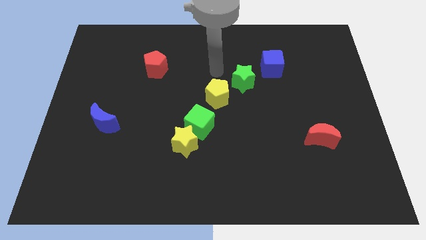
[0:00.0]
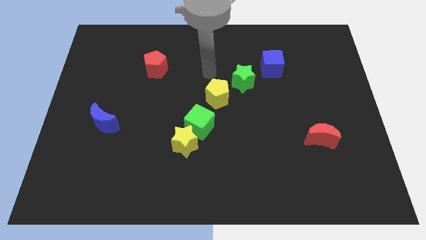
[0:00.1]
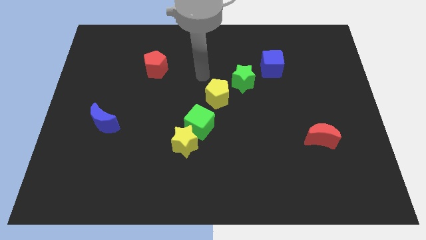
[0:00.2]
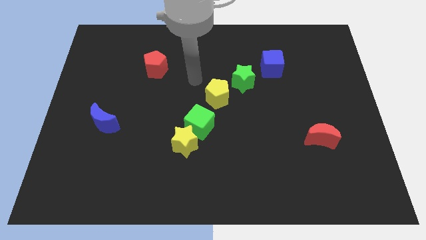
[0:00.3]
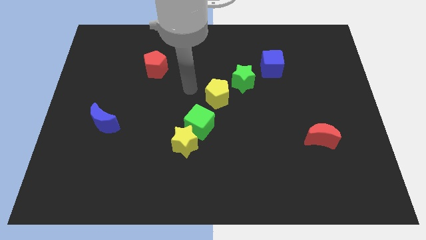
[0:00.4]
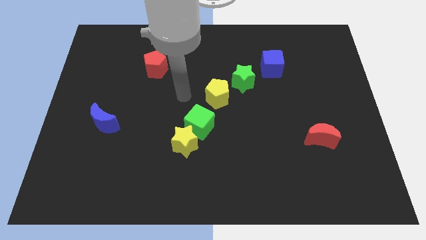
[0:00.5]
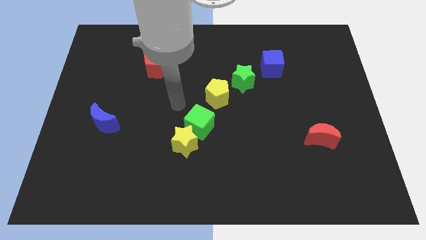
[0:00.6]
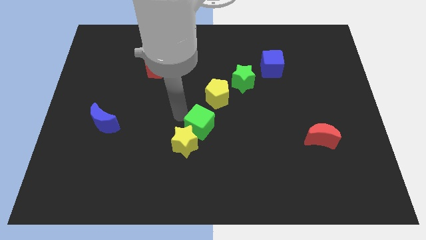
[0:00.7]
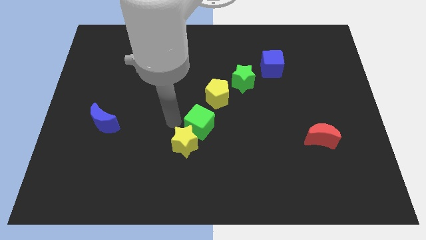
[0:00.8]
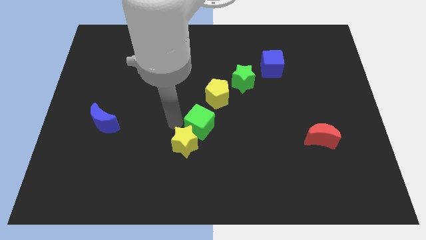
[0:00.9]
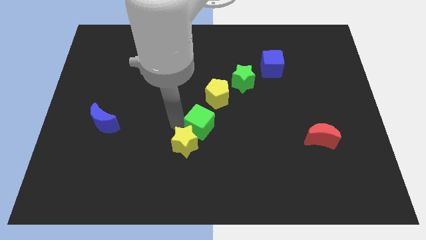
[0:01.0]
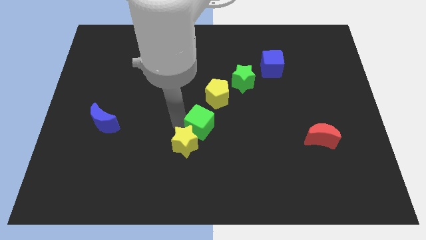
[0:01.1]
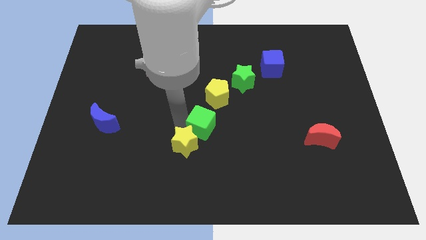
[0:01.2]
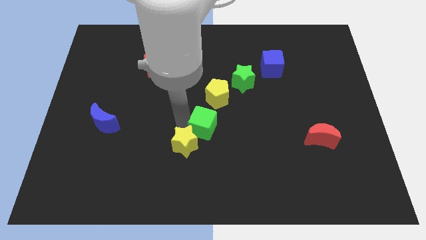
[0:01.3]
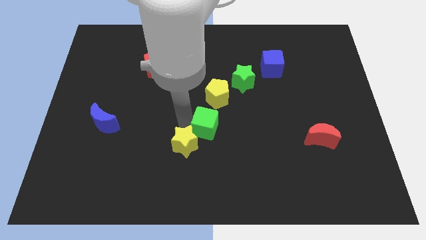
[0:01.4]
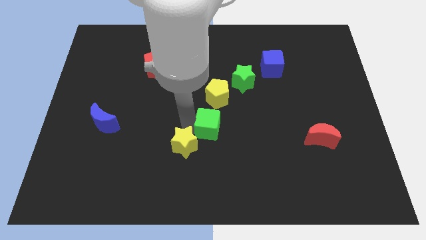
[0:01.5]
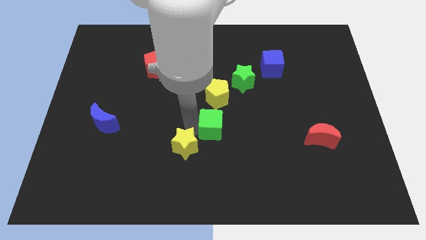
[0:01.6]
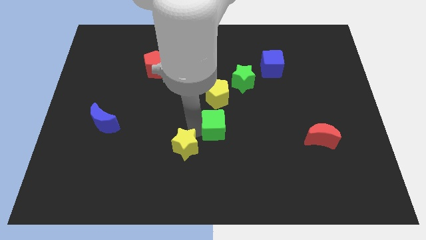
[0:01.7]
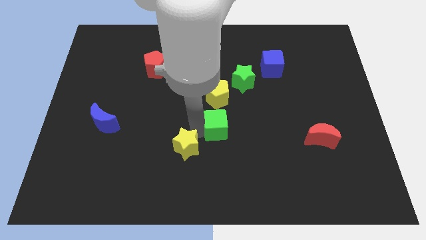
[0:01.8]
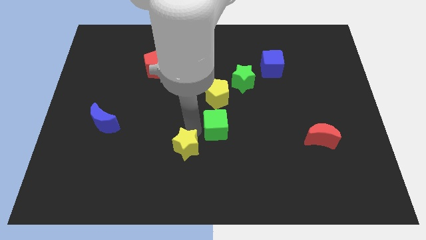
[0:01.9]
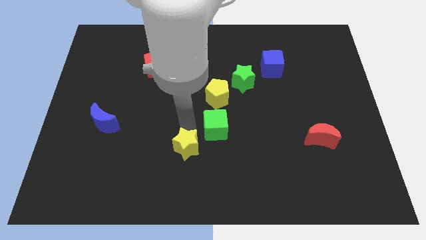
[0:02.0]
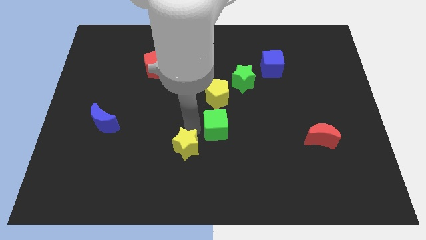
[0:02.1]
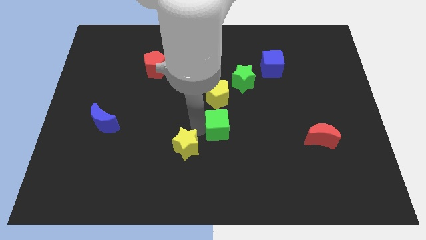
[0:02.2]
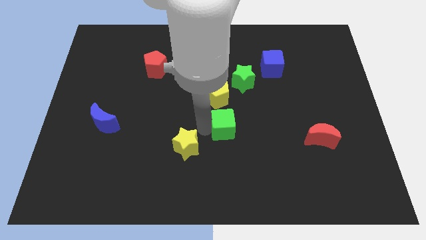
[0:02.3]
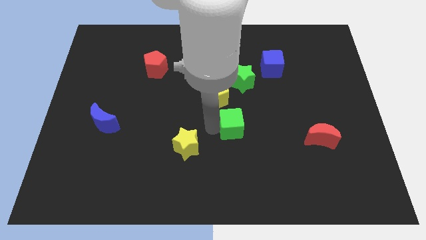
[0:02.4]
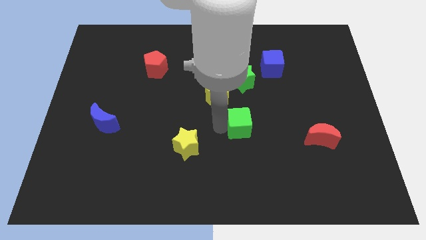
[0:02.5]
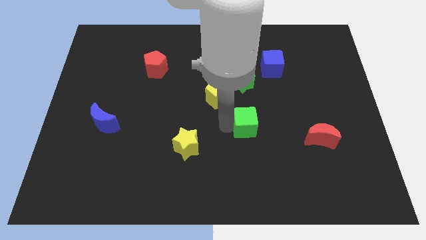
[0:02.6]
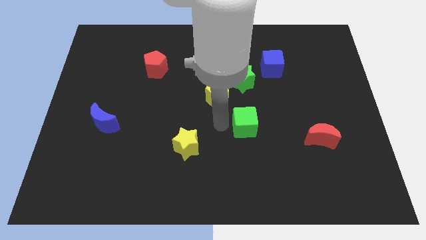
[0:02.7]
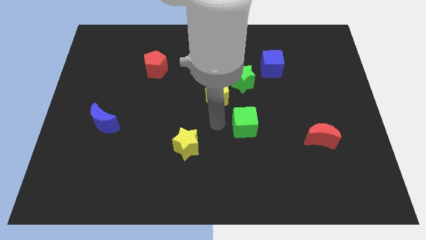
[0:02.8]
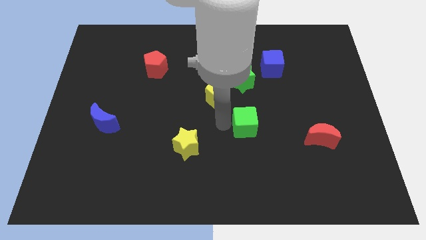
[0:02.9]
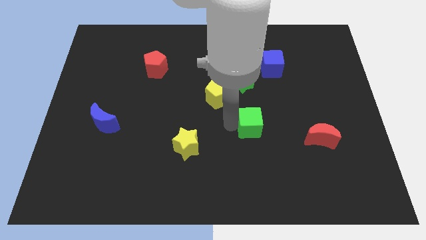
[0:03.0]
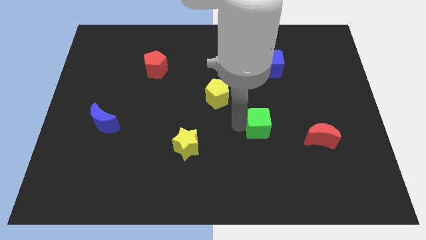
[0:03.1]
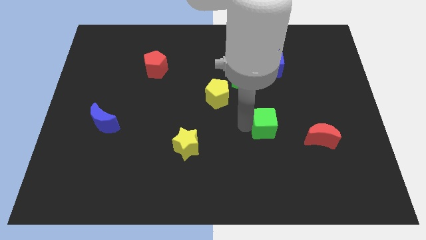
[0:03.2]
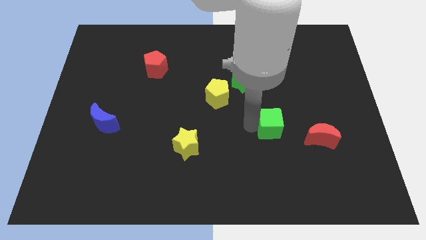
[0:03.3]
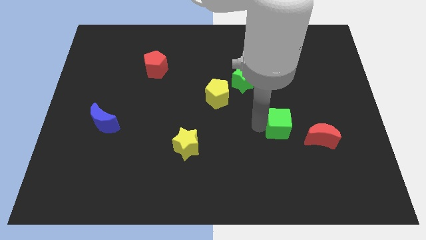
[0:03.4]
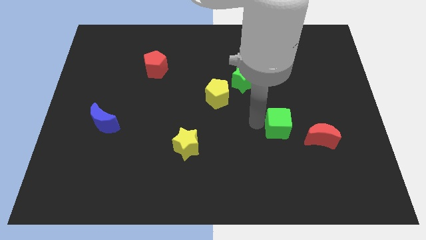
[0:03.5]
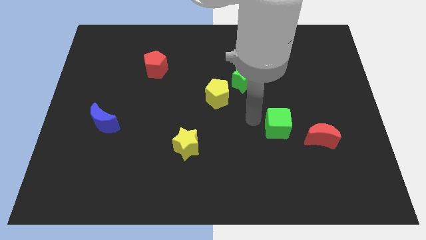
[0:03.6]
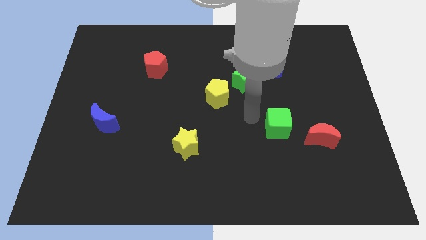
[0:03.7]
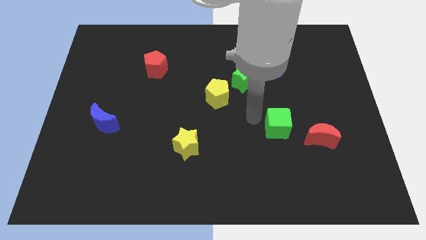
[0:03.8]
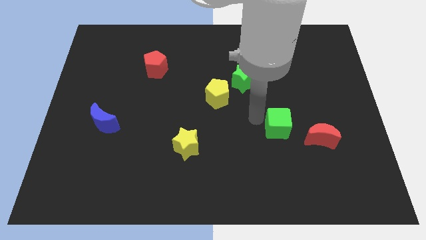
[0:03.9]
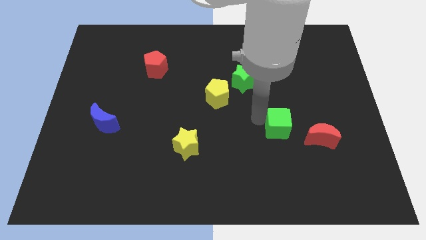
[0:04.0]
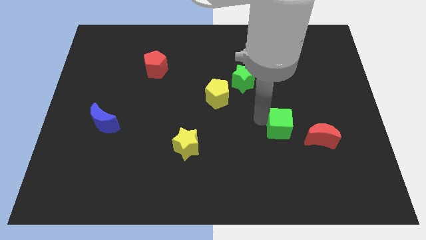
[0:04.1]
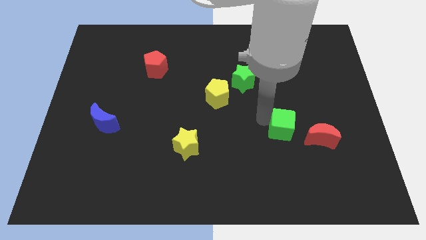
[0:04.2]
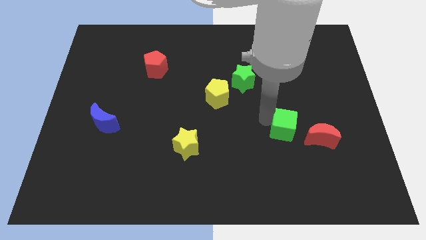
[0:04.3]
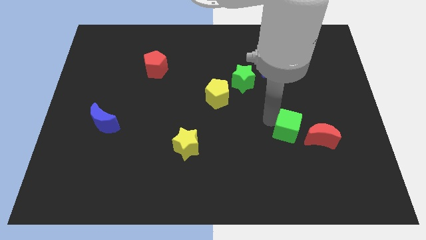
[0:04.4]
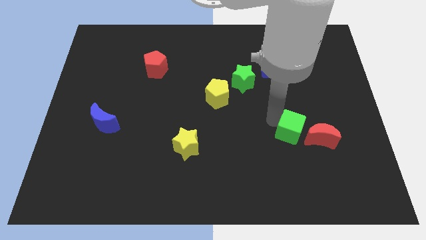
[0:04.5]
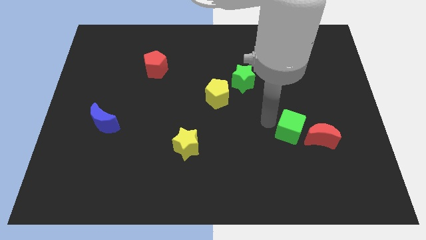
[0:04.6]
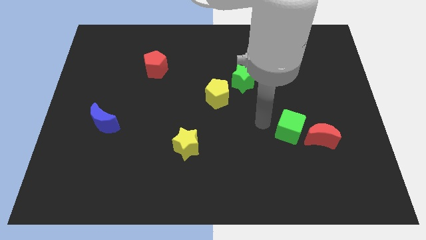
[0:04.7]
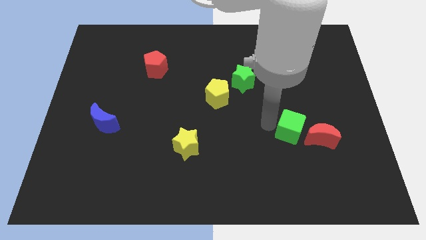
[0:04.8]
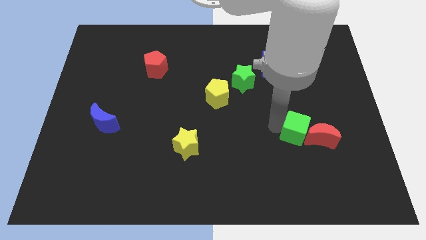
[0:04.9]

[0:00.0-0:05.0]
move the green cube next to the red moon
